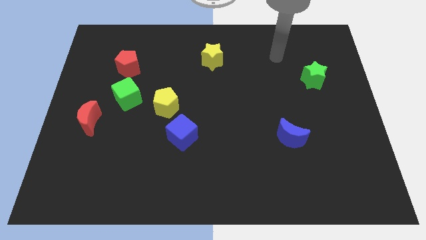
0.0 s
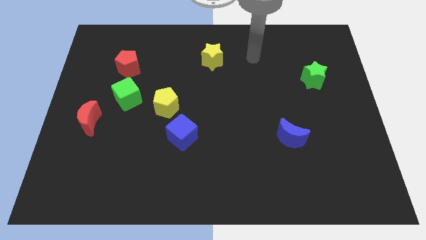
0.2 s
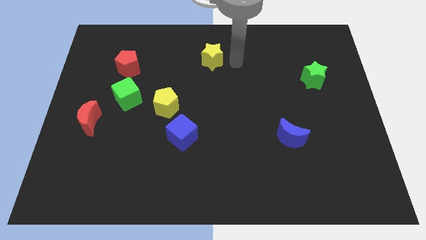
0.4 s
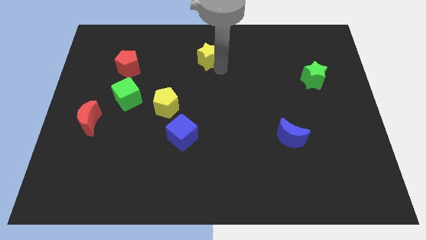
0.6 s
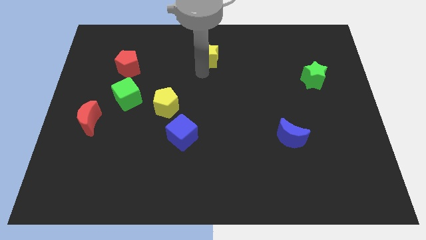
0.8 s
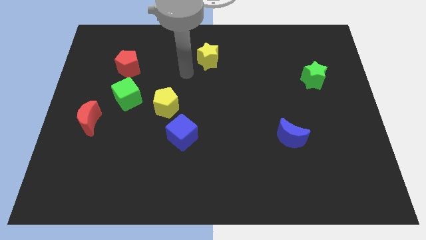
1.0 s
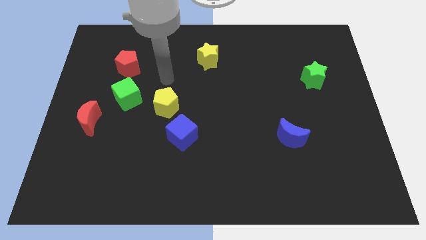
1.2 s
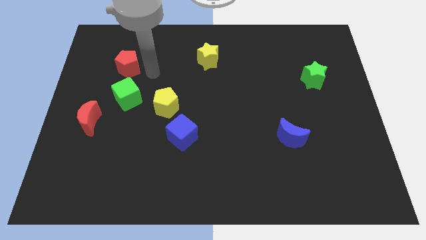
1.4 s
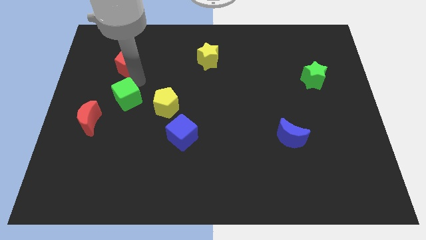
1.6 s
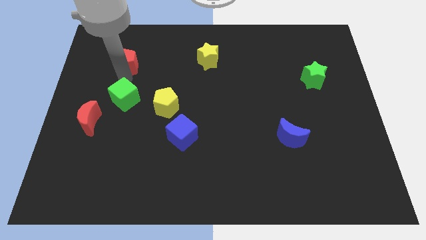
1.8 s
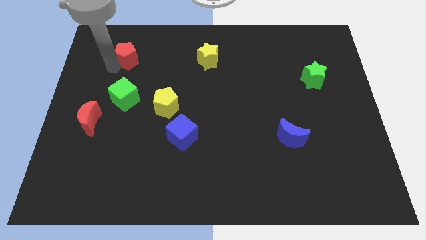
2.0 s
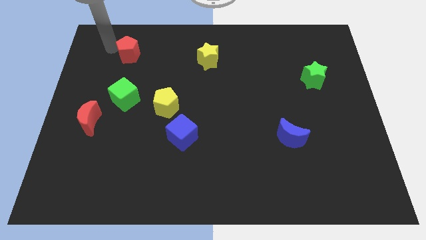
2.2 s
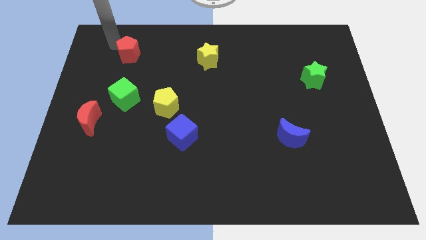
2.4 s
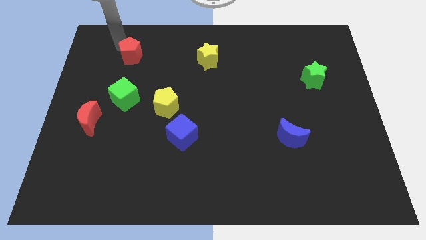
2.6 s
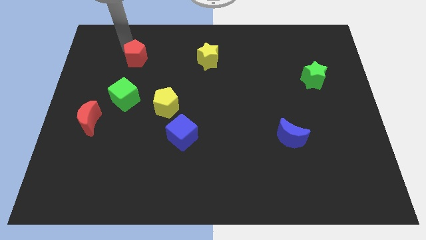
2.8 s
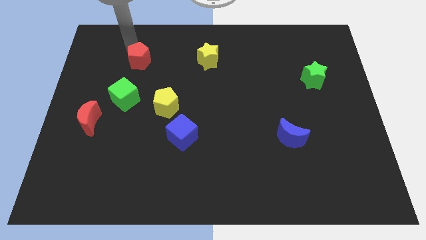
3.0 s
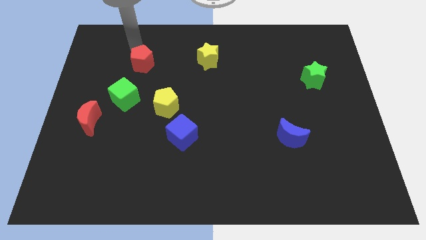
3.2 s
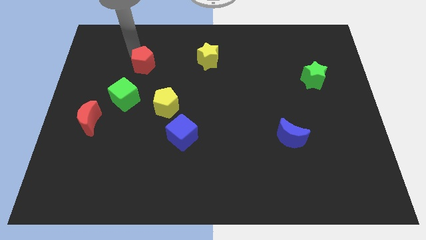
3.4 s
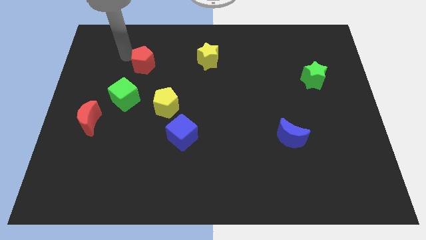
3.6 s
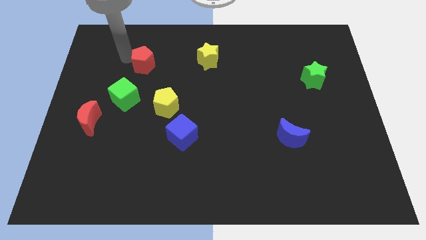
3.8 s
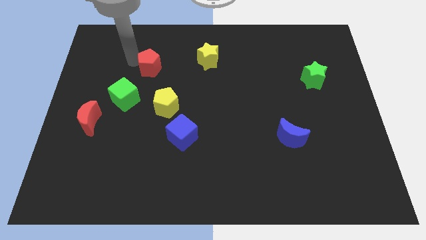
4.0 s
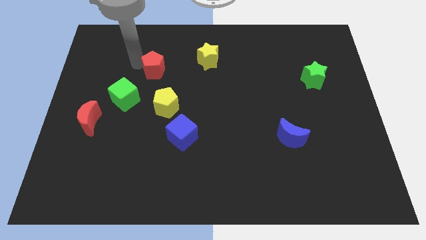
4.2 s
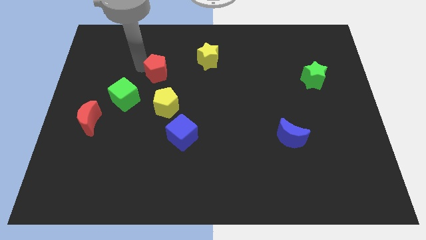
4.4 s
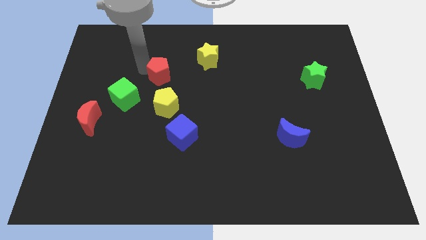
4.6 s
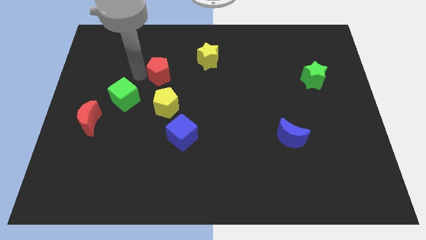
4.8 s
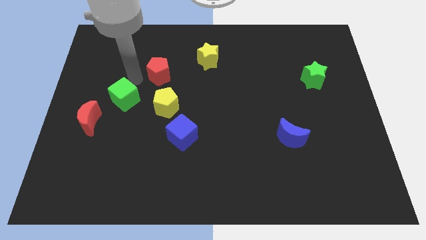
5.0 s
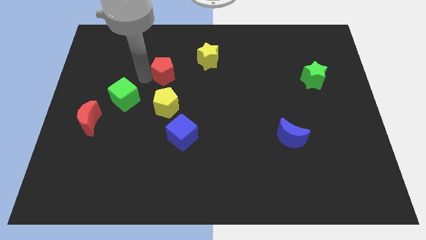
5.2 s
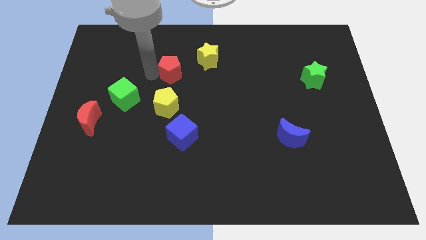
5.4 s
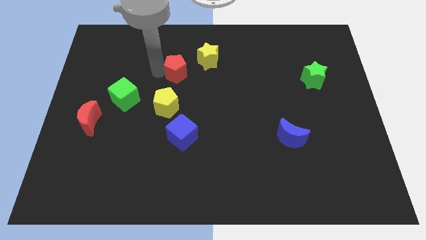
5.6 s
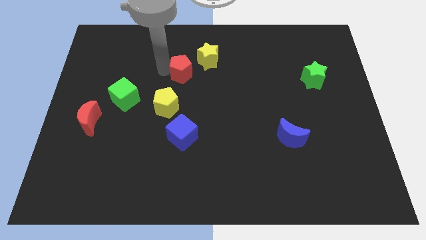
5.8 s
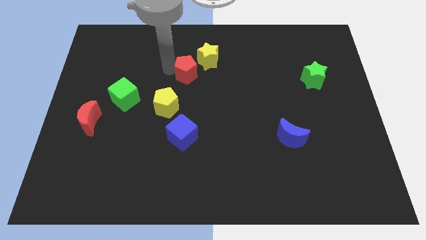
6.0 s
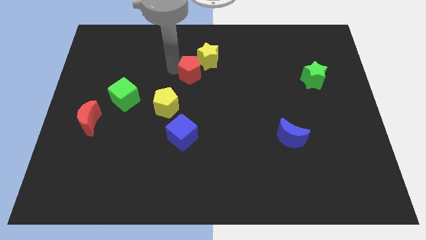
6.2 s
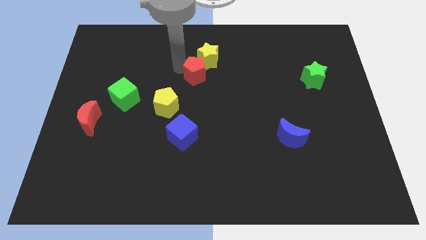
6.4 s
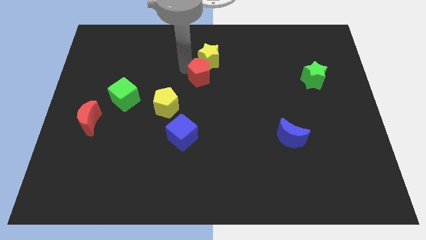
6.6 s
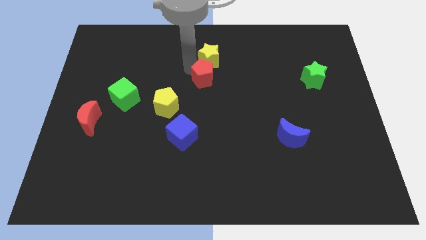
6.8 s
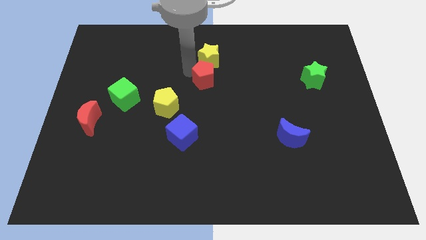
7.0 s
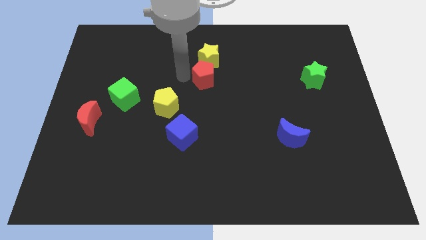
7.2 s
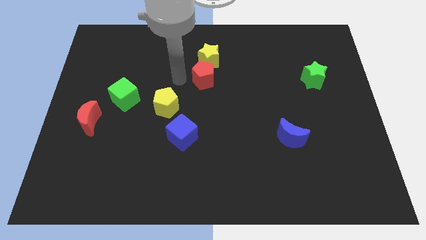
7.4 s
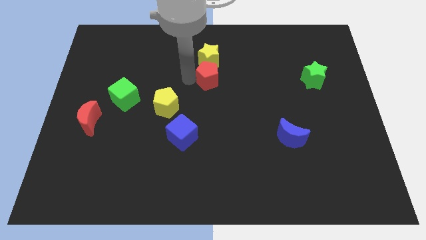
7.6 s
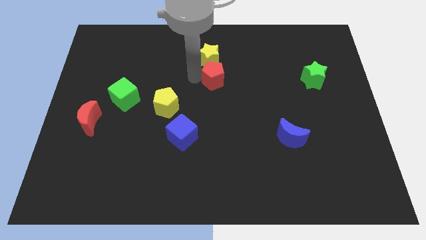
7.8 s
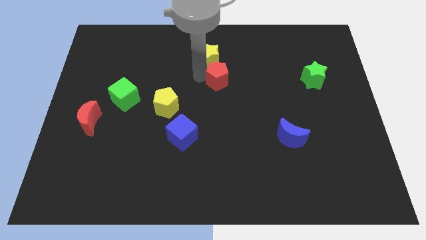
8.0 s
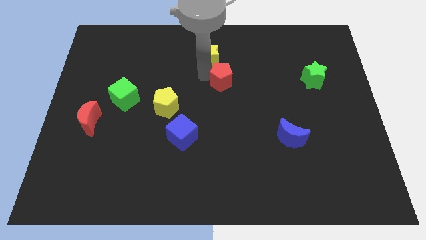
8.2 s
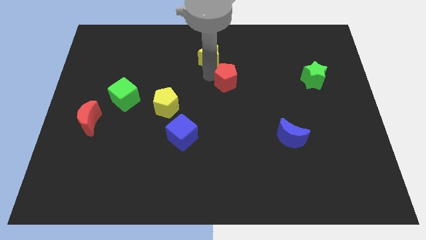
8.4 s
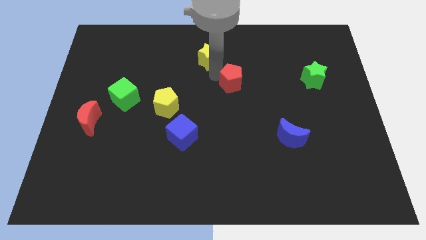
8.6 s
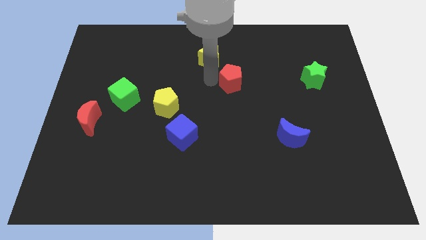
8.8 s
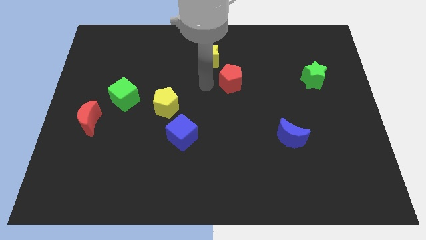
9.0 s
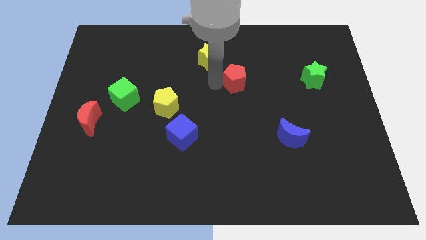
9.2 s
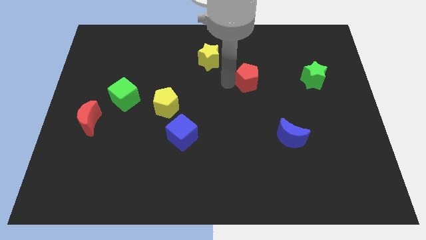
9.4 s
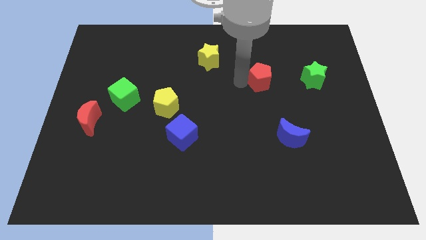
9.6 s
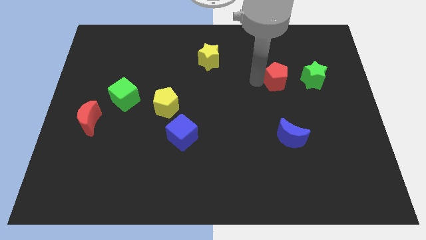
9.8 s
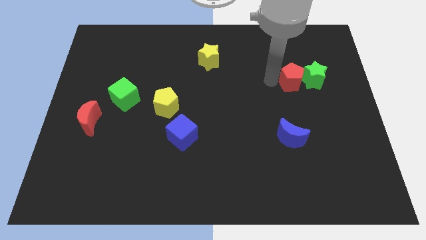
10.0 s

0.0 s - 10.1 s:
move the red pentagon to the green star

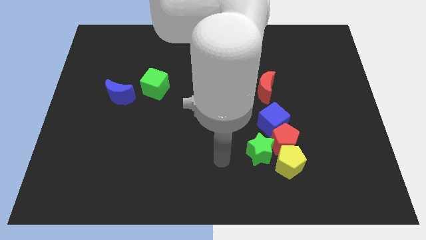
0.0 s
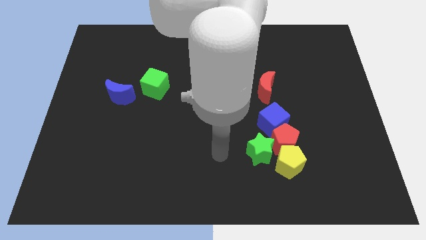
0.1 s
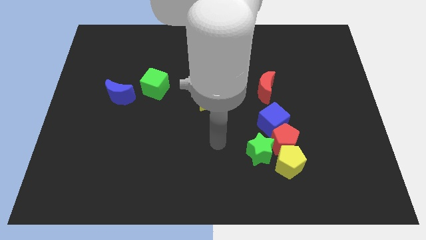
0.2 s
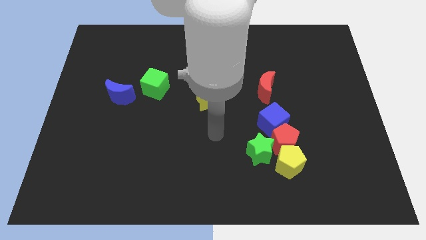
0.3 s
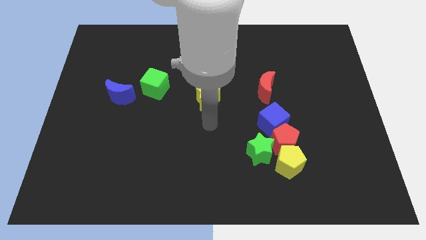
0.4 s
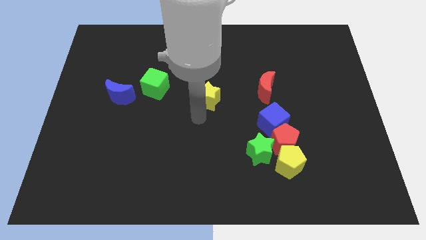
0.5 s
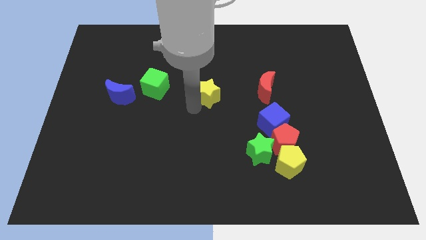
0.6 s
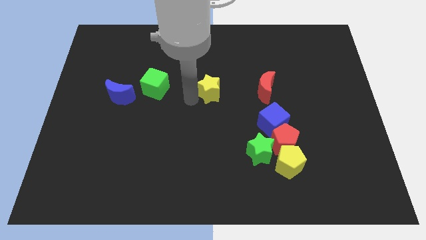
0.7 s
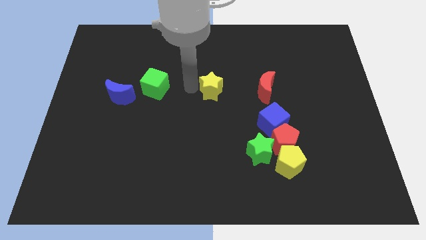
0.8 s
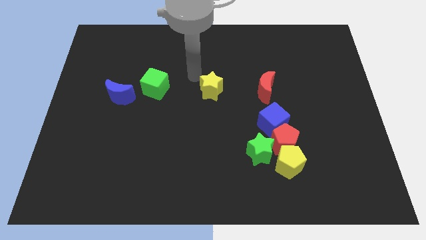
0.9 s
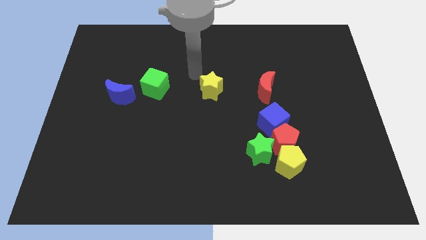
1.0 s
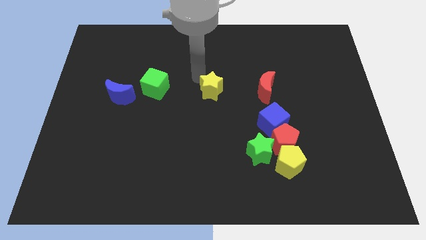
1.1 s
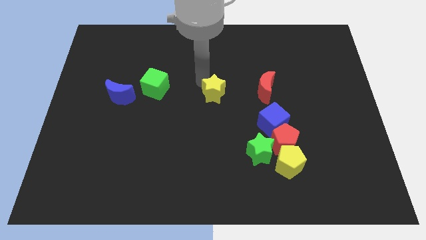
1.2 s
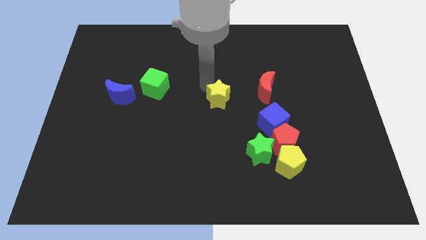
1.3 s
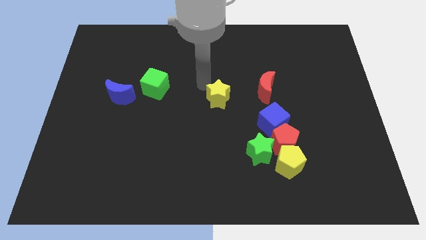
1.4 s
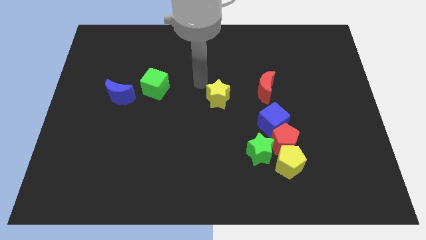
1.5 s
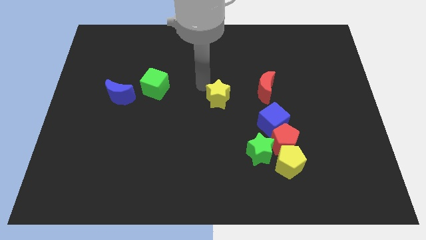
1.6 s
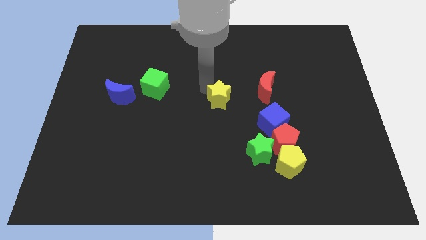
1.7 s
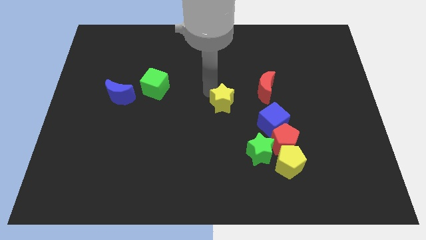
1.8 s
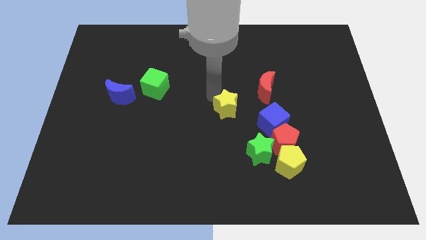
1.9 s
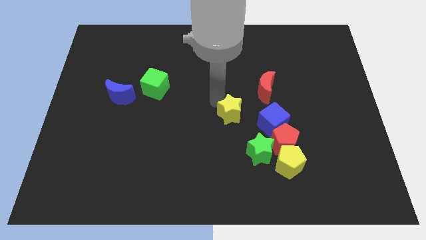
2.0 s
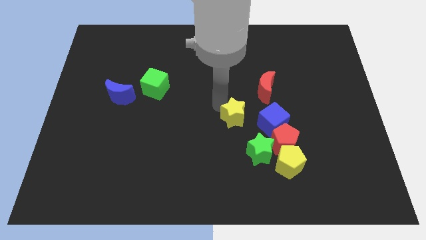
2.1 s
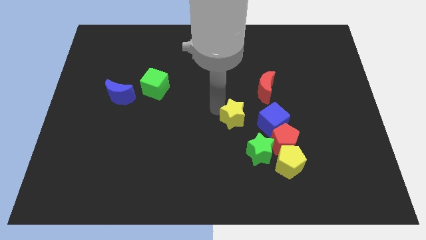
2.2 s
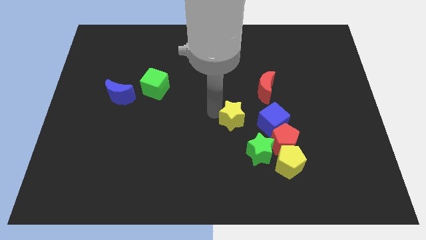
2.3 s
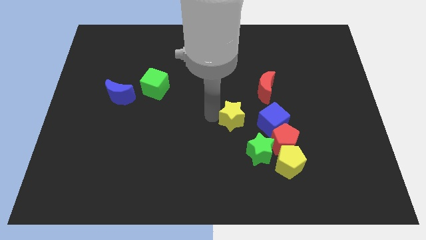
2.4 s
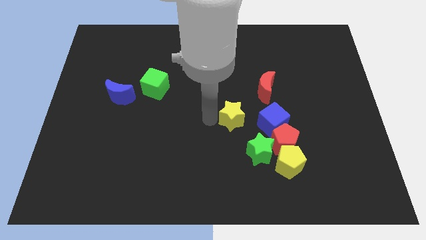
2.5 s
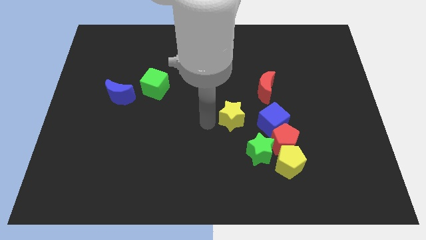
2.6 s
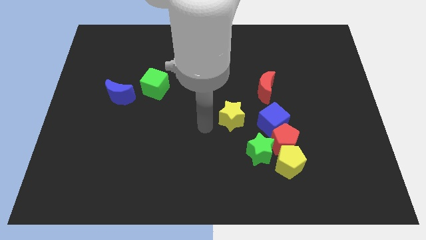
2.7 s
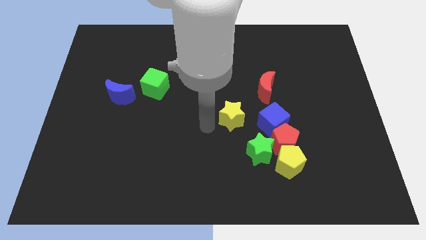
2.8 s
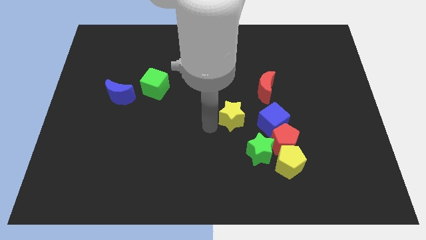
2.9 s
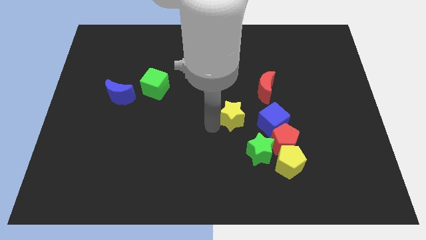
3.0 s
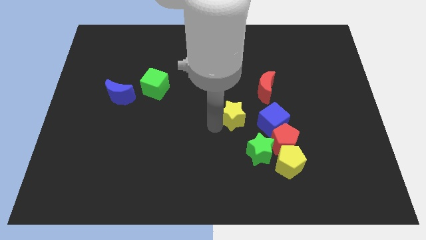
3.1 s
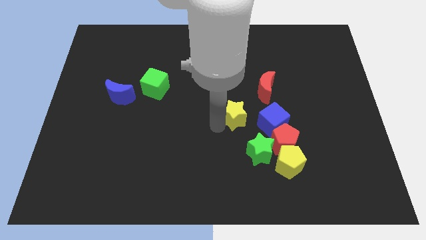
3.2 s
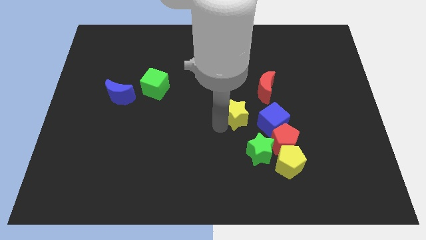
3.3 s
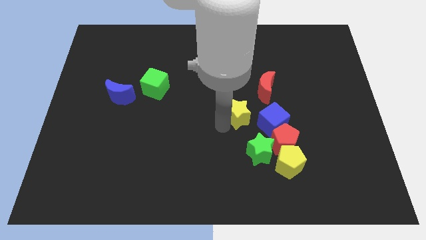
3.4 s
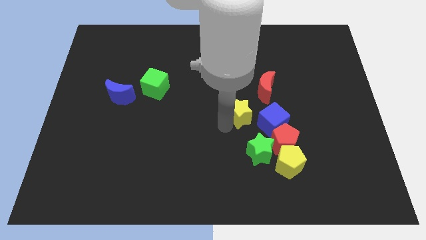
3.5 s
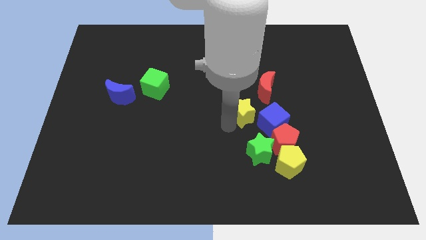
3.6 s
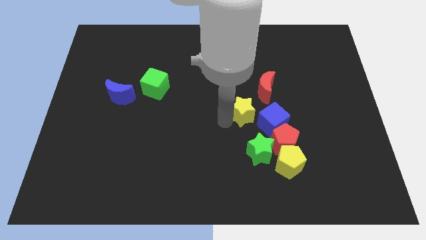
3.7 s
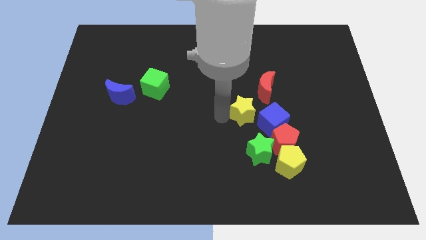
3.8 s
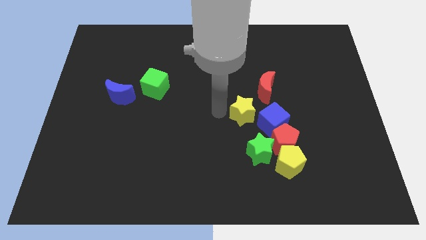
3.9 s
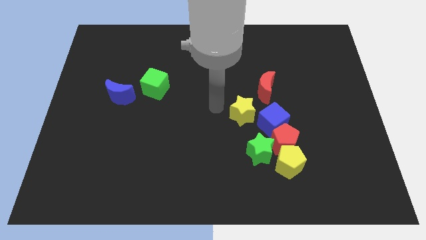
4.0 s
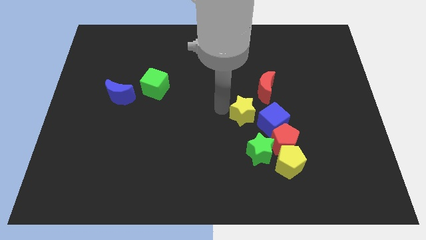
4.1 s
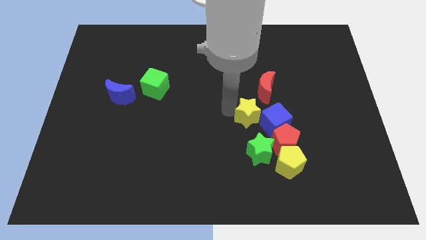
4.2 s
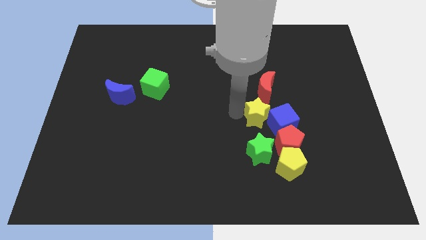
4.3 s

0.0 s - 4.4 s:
move the yellow star close to the blue cube
